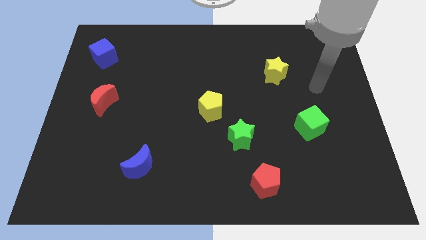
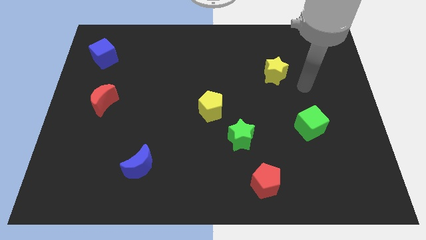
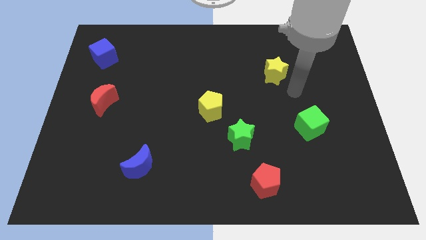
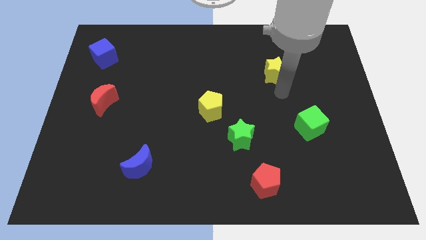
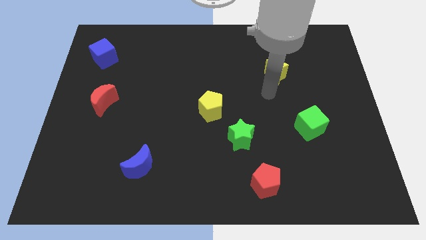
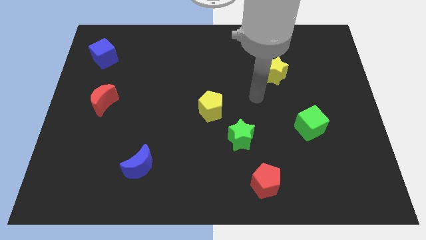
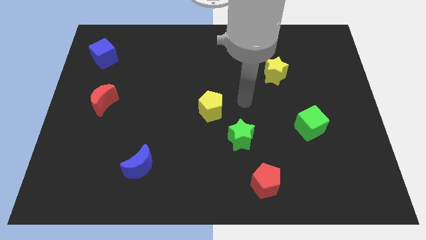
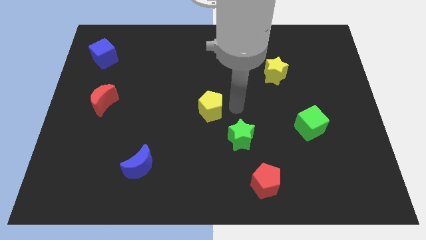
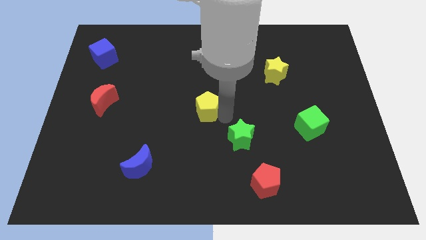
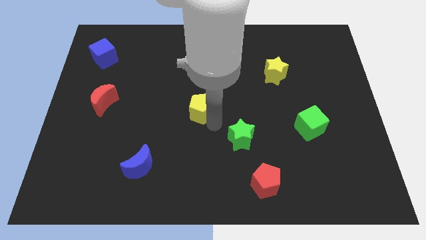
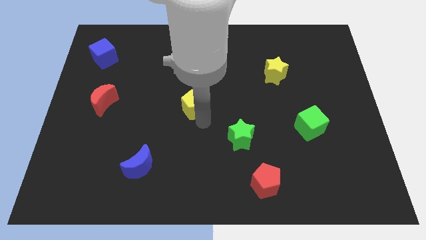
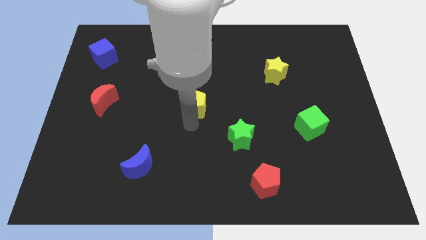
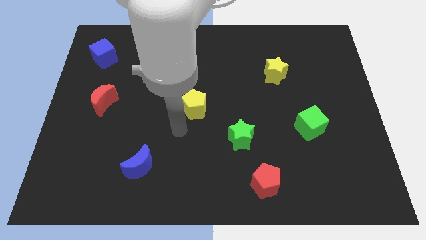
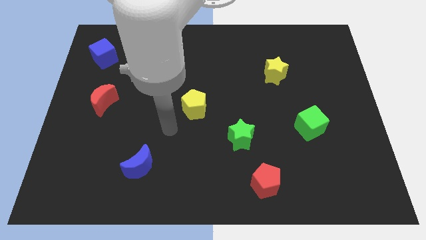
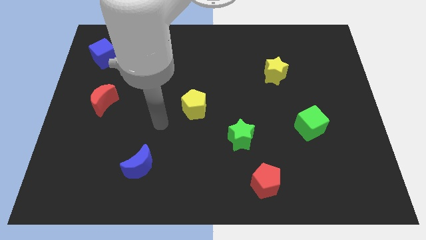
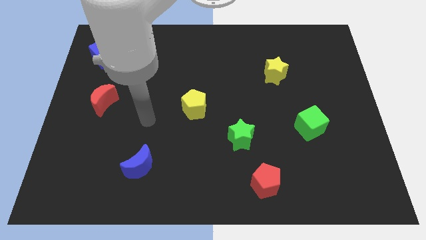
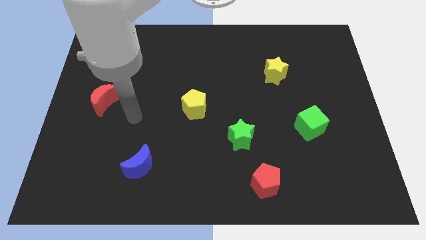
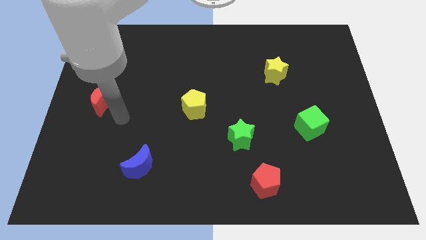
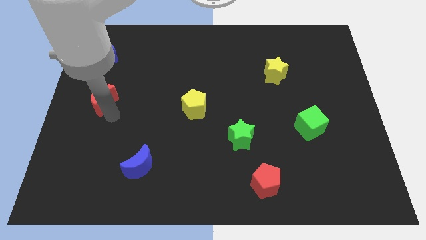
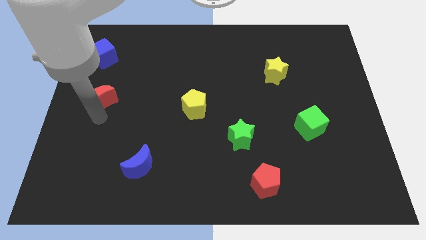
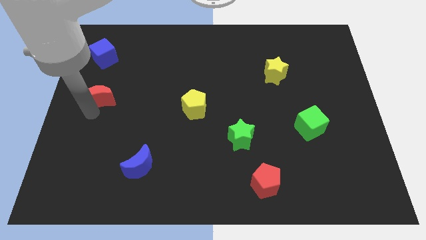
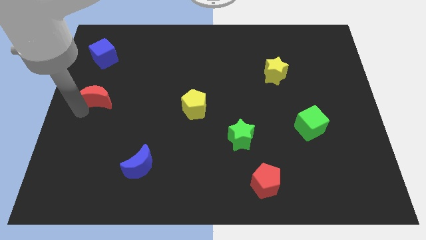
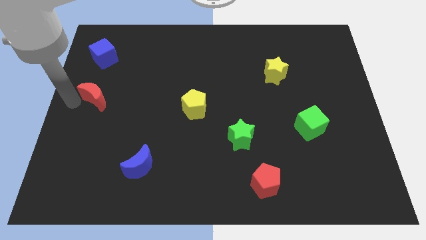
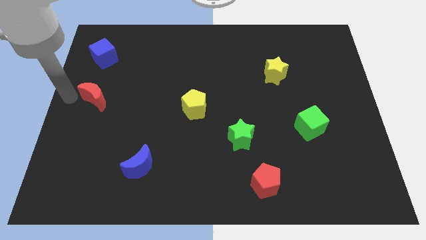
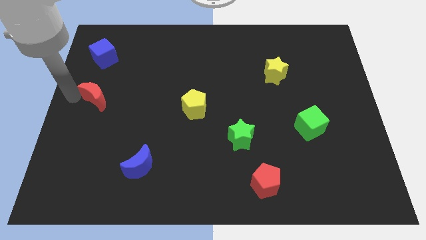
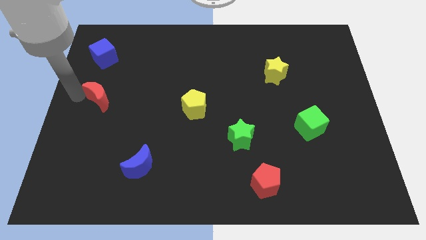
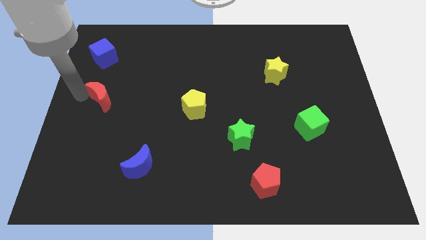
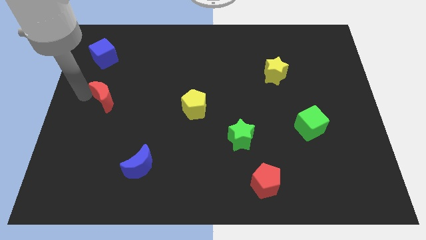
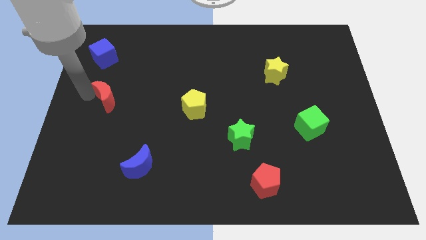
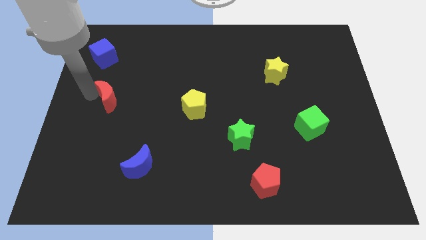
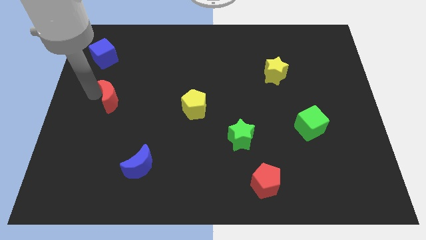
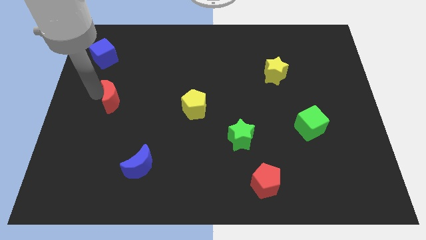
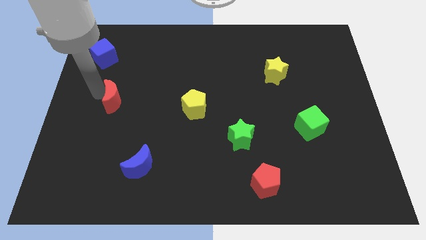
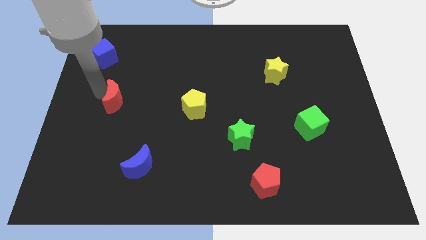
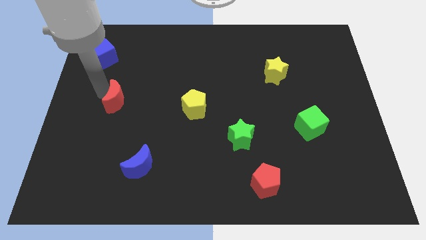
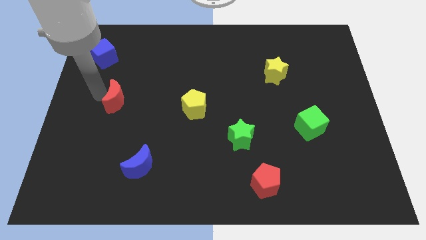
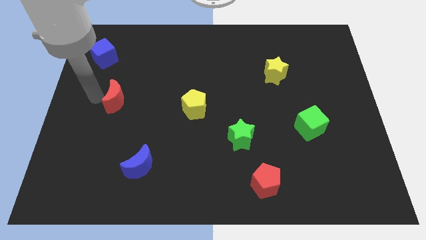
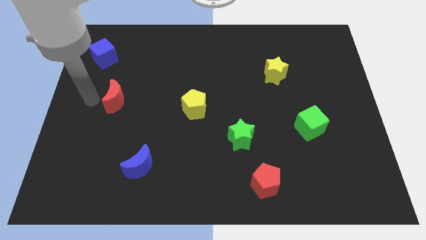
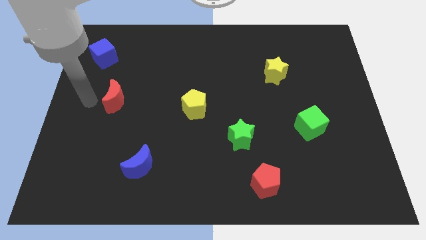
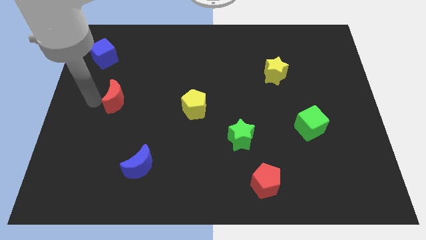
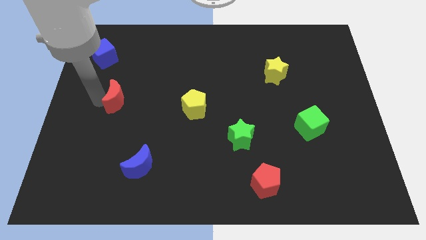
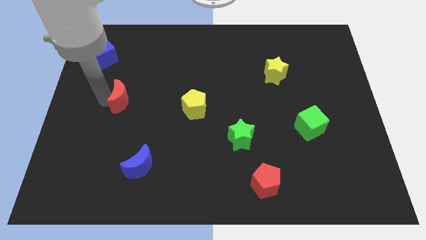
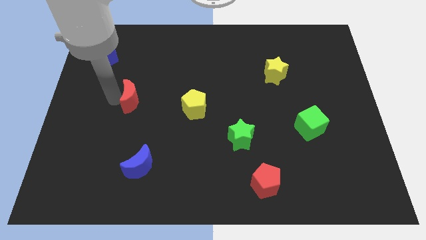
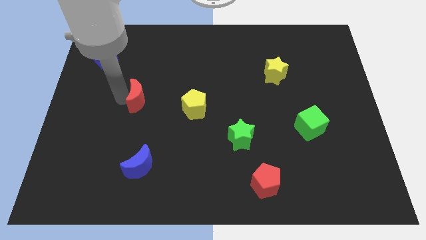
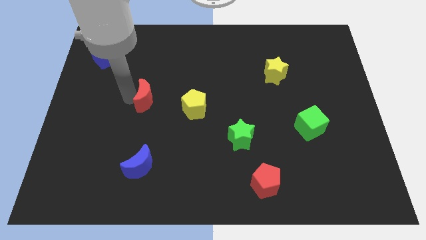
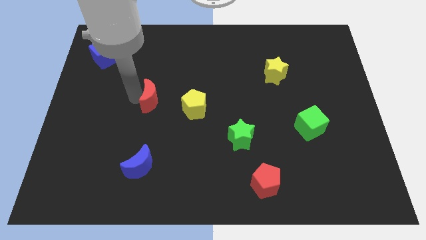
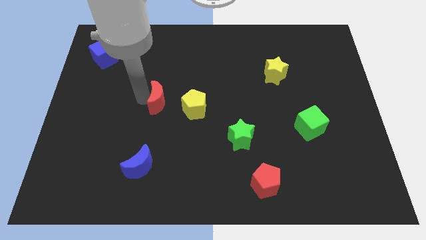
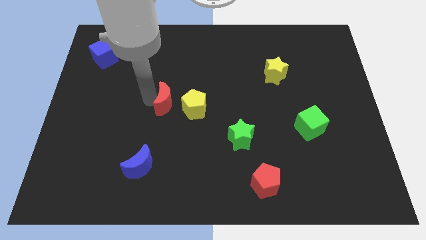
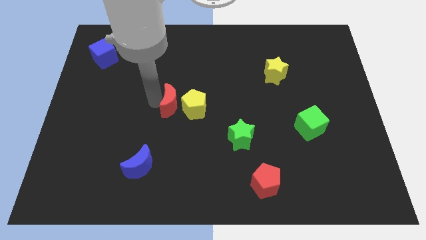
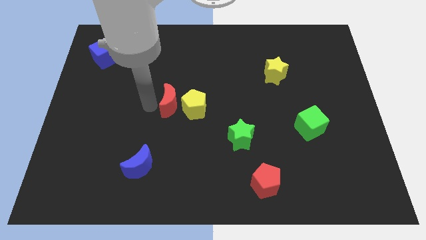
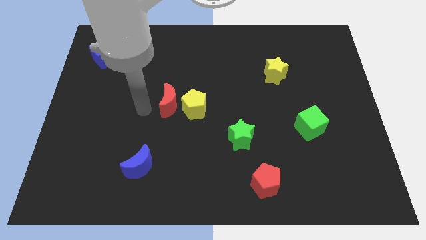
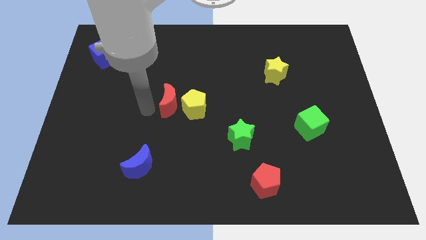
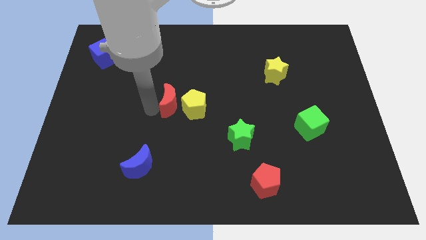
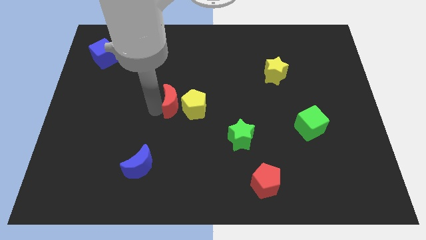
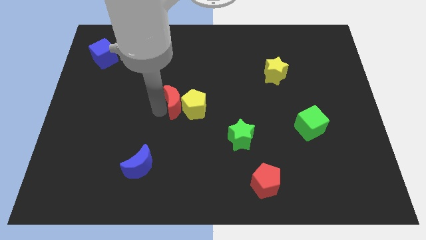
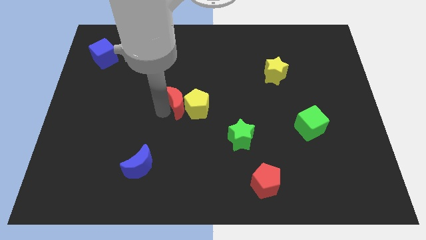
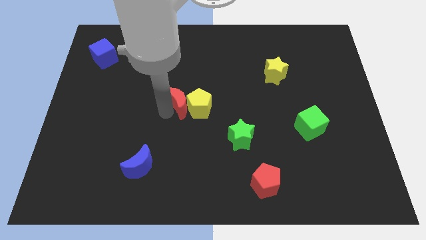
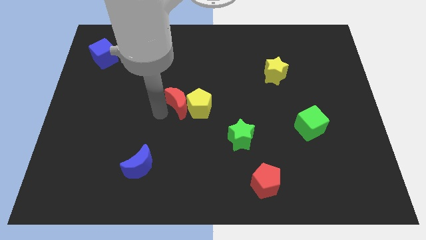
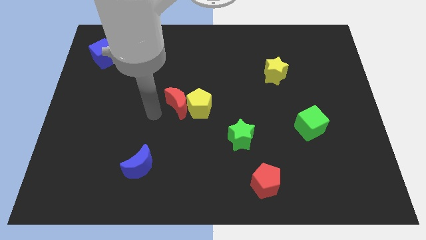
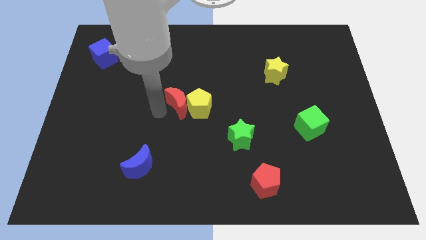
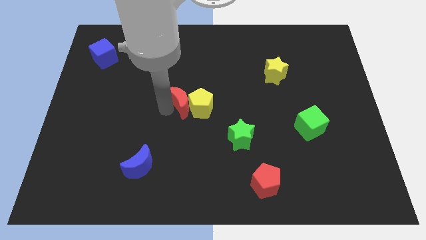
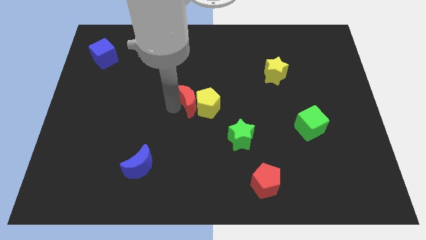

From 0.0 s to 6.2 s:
push the red moon to the right

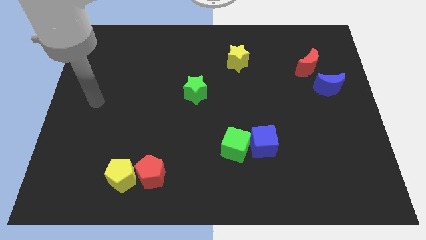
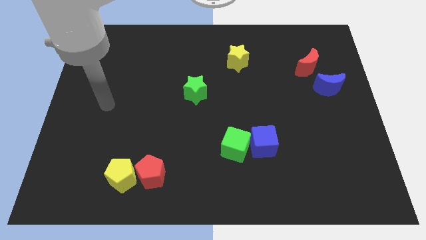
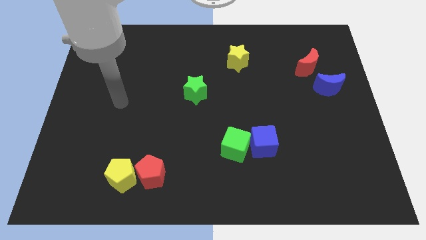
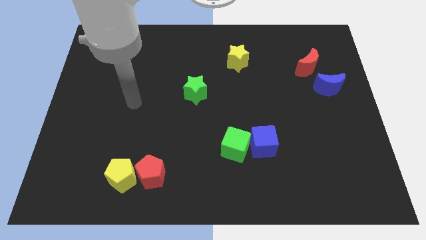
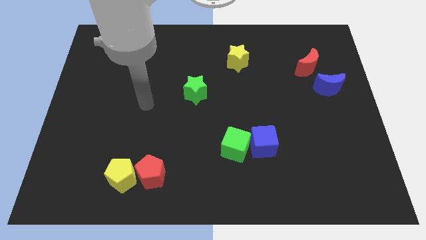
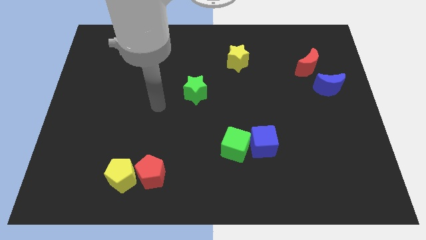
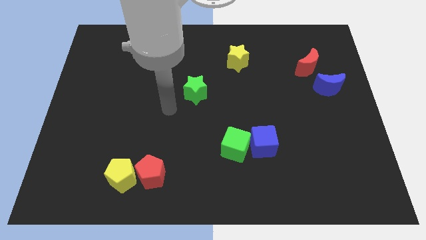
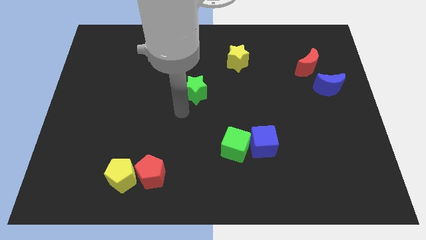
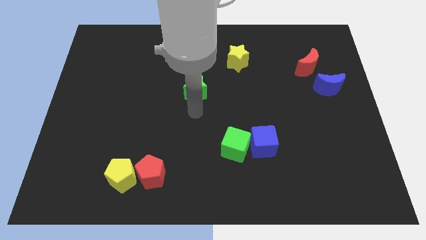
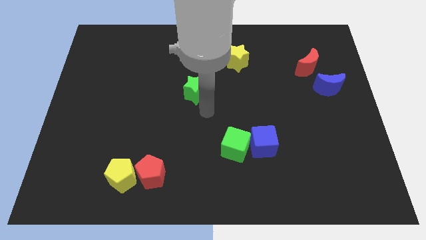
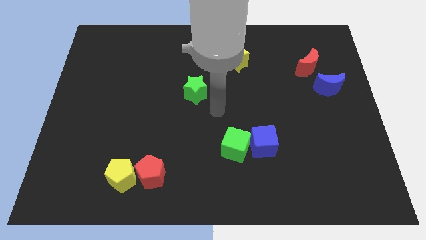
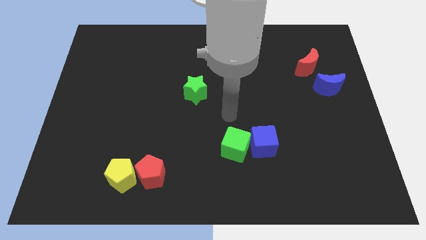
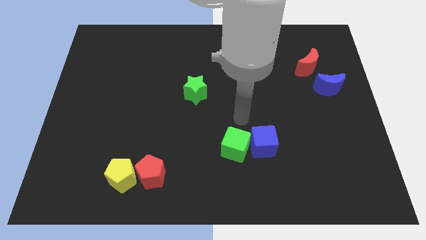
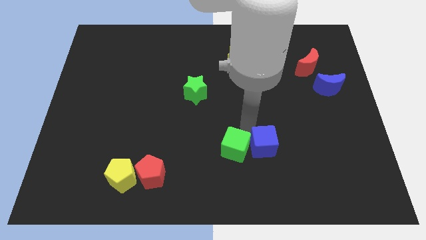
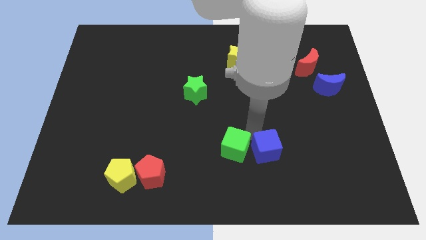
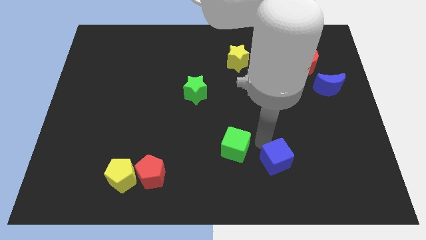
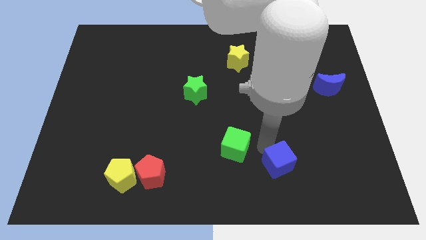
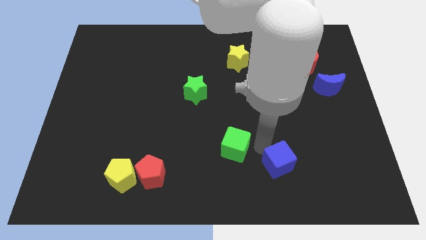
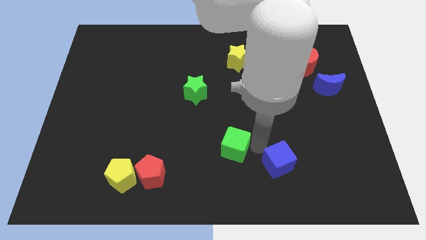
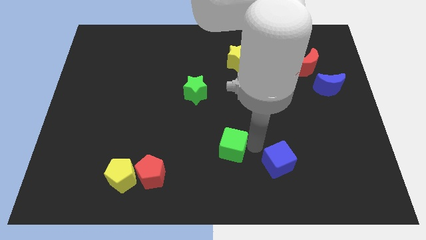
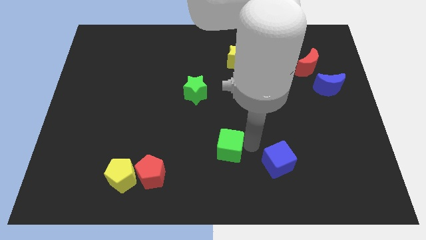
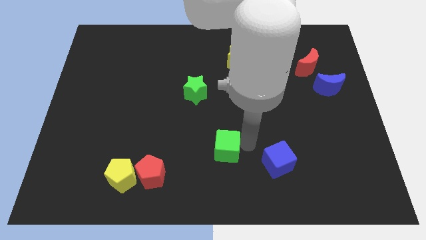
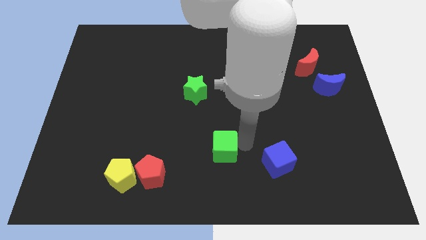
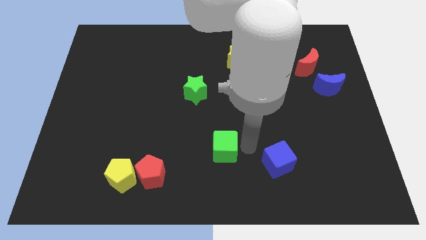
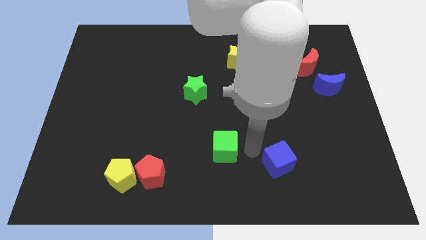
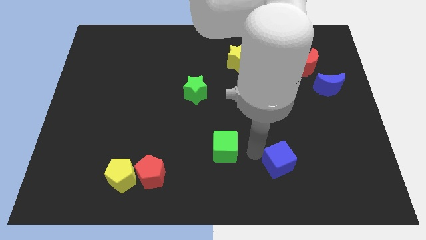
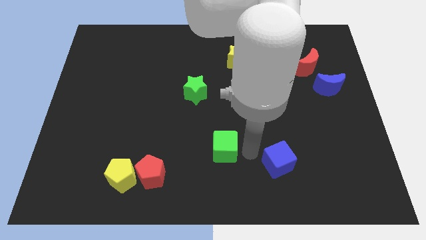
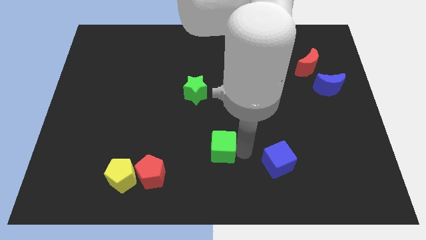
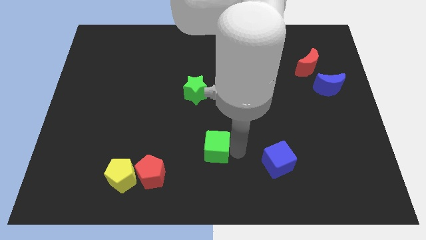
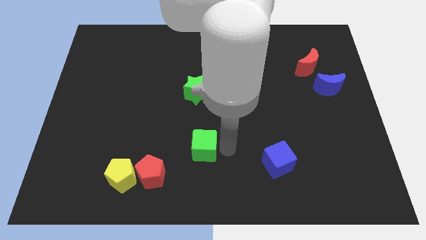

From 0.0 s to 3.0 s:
slightly move the green cube left
